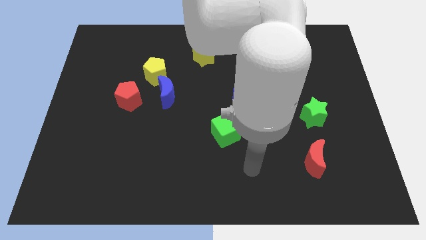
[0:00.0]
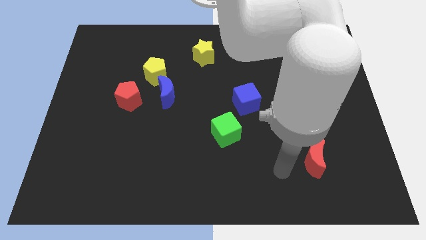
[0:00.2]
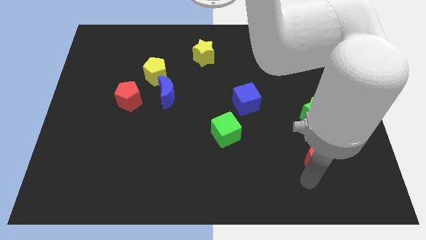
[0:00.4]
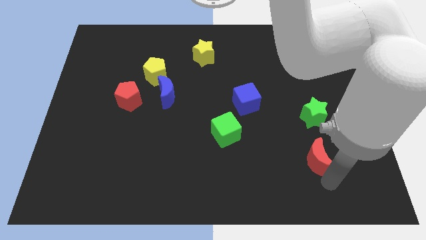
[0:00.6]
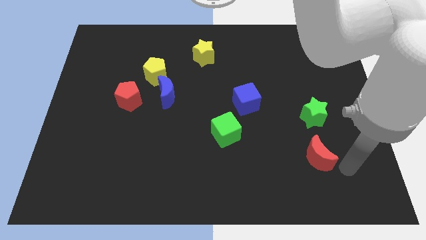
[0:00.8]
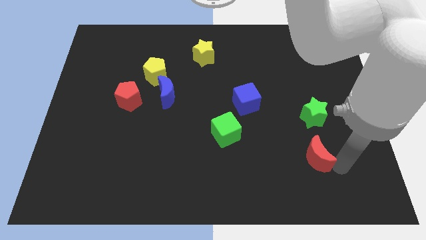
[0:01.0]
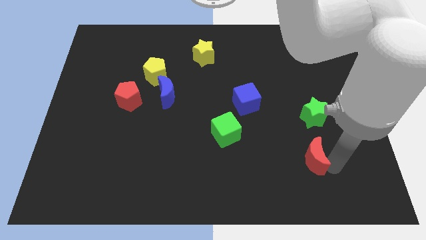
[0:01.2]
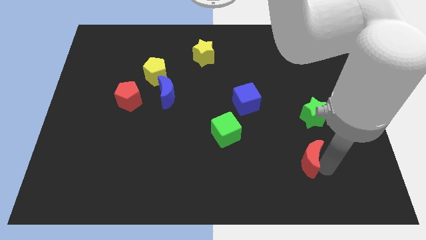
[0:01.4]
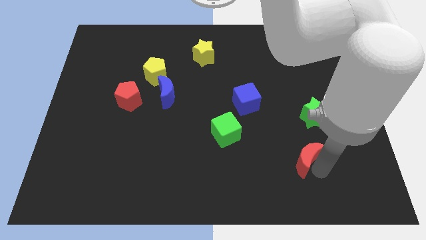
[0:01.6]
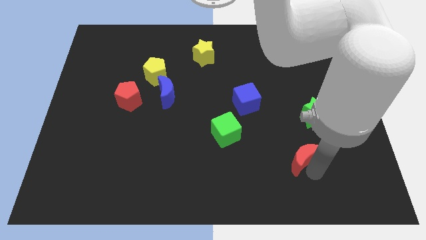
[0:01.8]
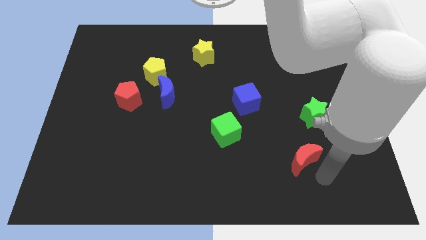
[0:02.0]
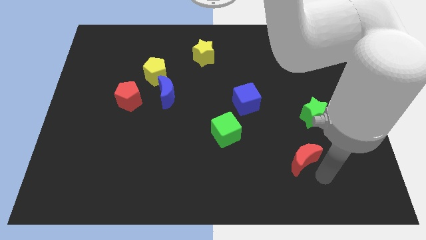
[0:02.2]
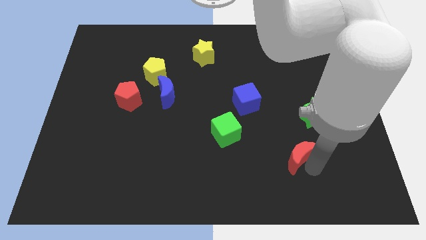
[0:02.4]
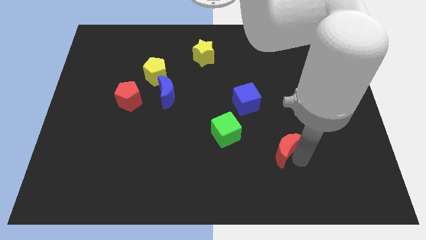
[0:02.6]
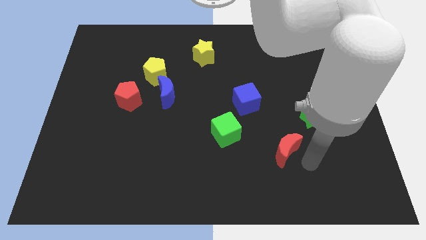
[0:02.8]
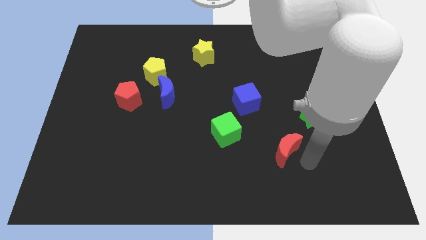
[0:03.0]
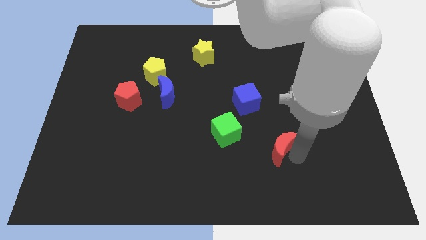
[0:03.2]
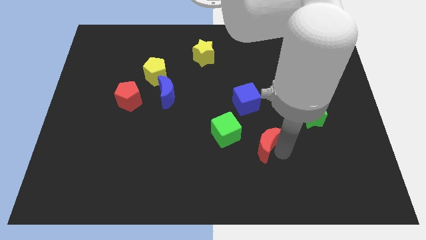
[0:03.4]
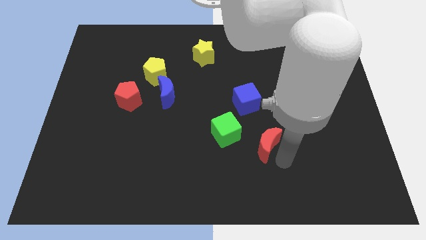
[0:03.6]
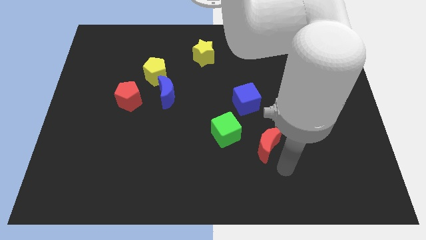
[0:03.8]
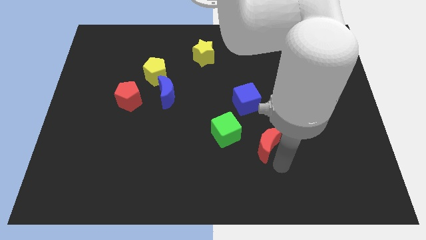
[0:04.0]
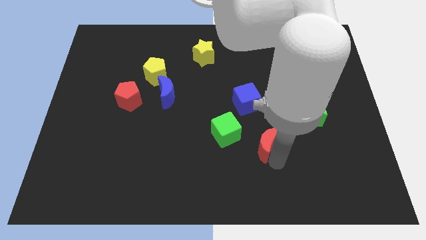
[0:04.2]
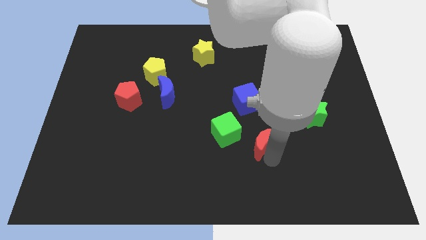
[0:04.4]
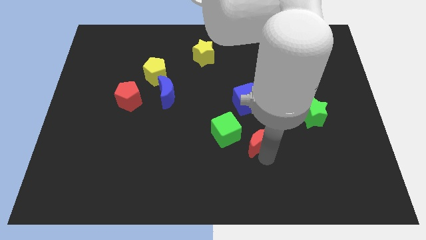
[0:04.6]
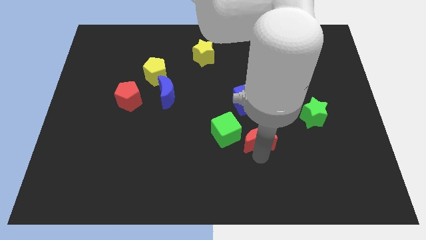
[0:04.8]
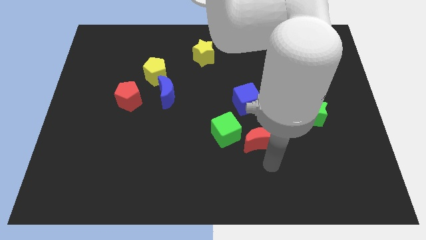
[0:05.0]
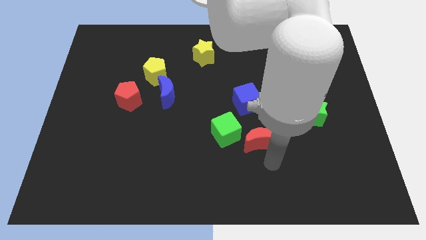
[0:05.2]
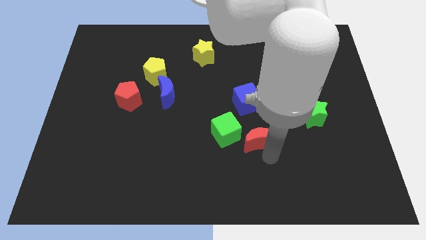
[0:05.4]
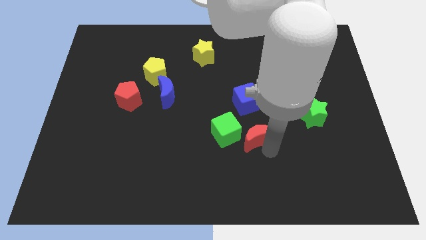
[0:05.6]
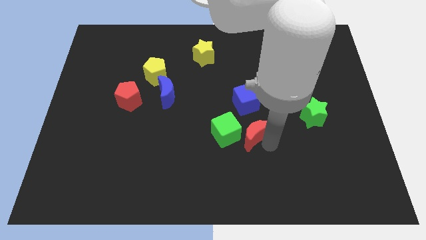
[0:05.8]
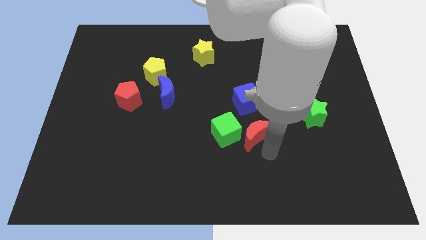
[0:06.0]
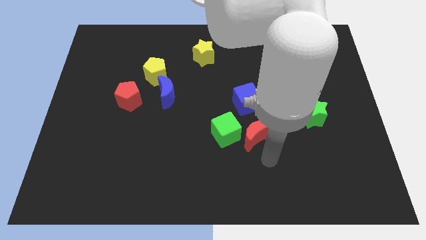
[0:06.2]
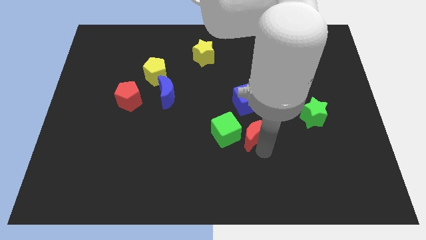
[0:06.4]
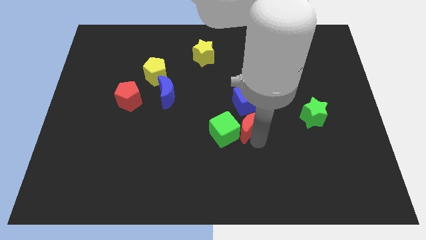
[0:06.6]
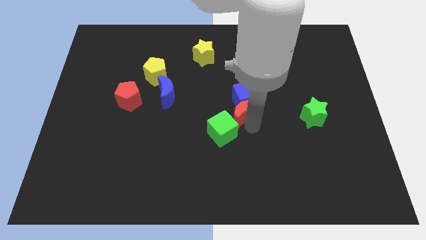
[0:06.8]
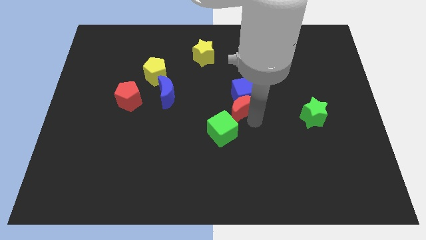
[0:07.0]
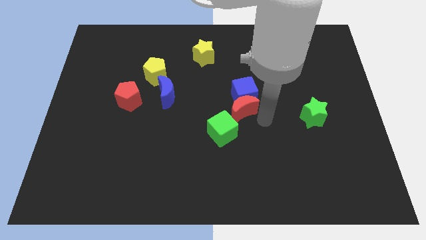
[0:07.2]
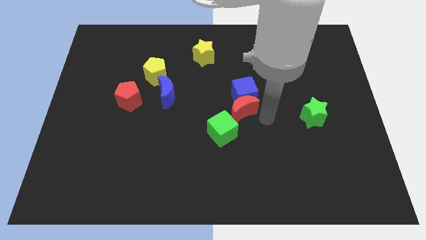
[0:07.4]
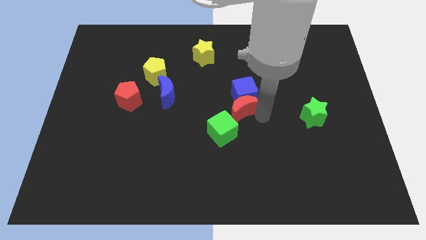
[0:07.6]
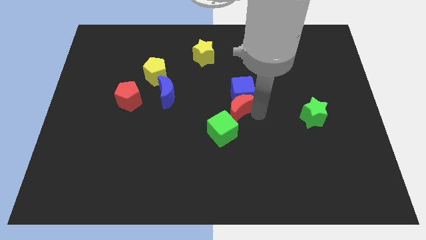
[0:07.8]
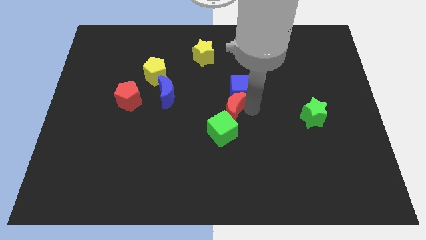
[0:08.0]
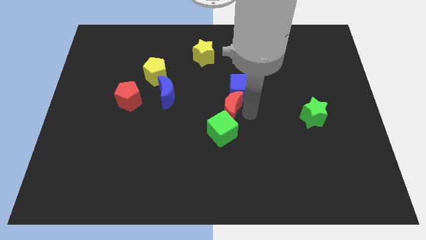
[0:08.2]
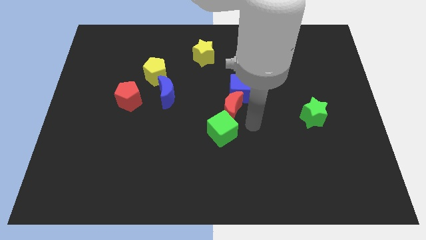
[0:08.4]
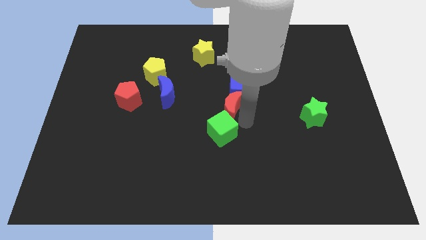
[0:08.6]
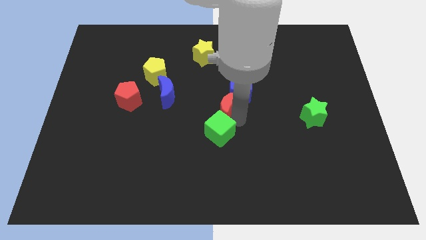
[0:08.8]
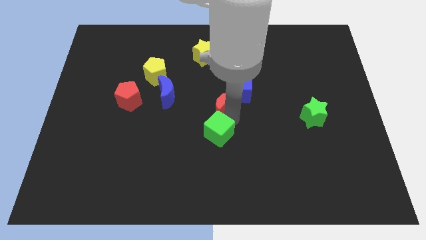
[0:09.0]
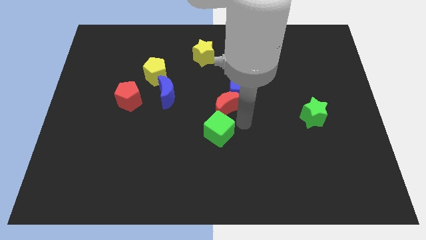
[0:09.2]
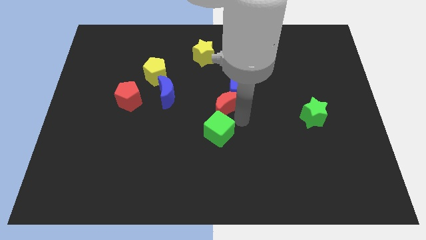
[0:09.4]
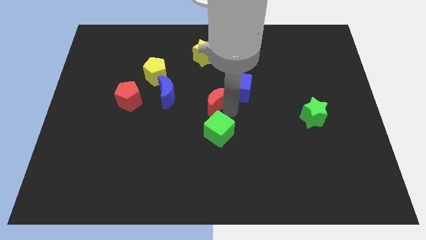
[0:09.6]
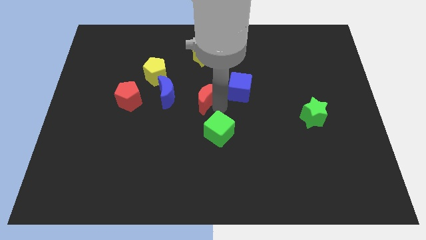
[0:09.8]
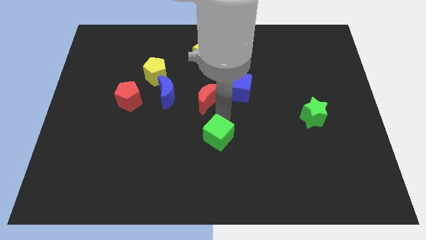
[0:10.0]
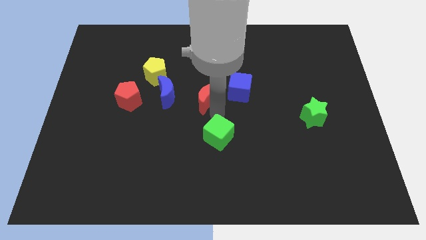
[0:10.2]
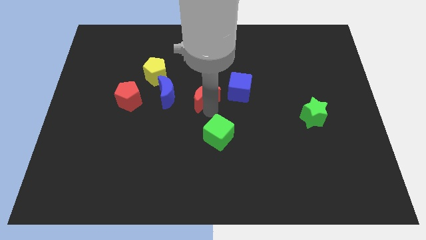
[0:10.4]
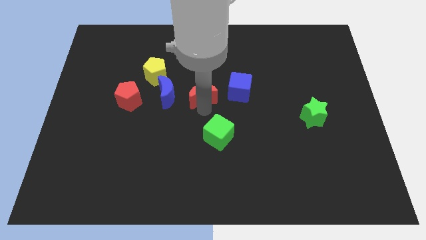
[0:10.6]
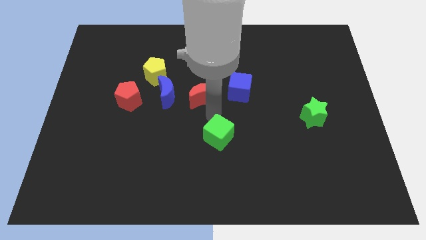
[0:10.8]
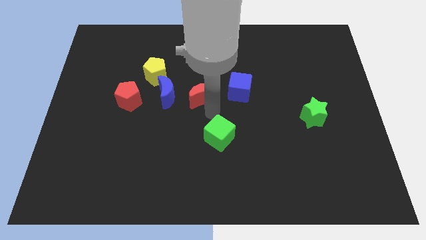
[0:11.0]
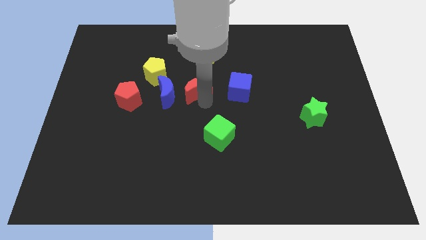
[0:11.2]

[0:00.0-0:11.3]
slide the red moon diagonally up and to the right of the blue moon

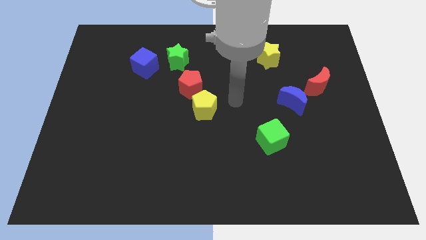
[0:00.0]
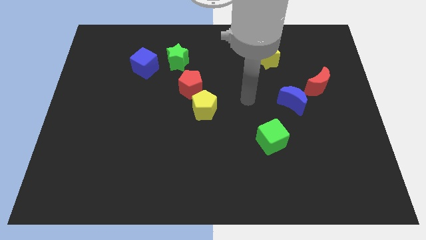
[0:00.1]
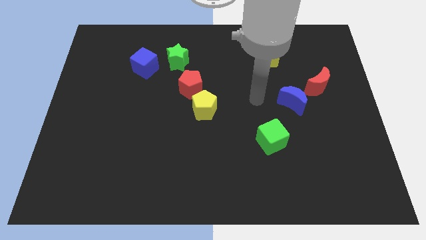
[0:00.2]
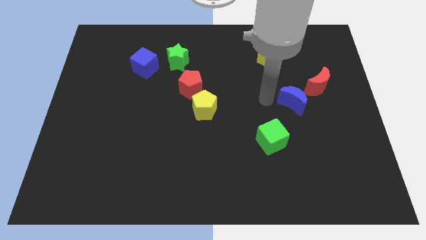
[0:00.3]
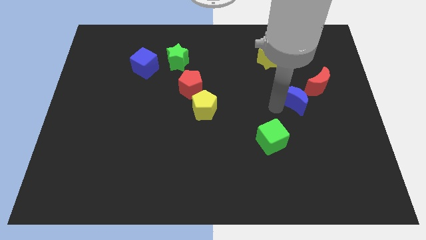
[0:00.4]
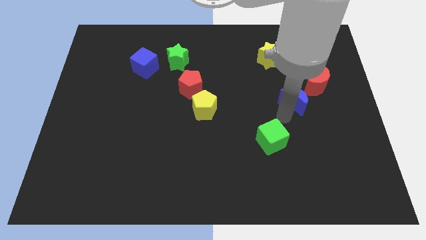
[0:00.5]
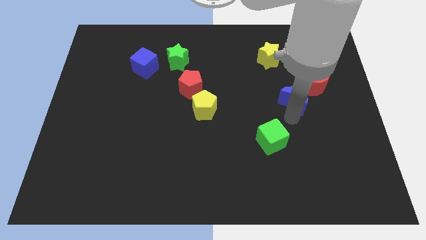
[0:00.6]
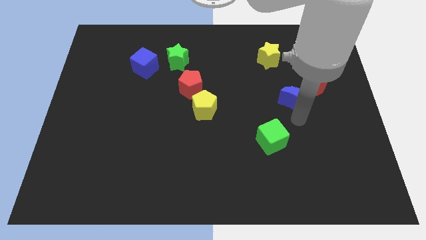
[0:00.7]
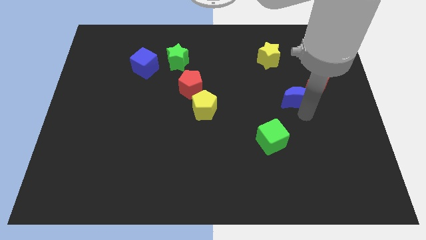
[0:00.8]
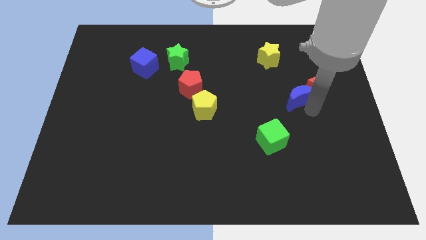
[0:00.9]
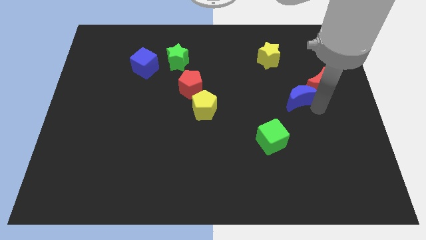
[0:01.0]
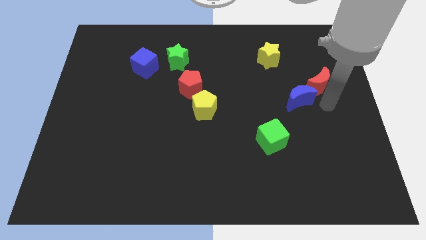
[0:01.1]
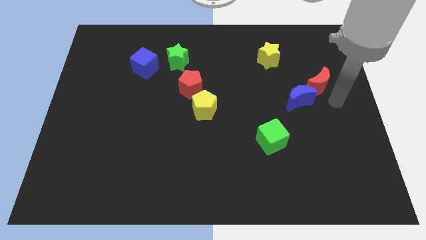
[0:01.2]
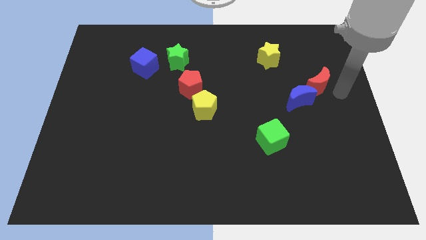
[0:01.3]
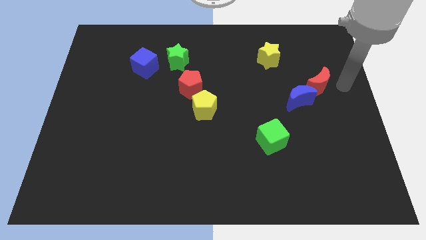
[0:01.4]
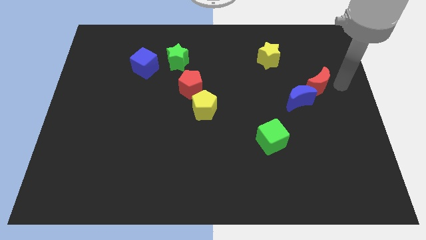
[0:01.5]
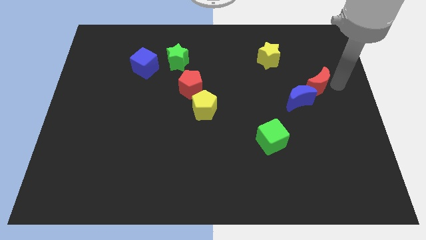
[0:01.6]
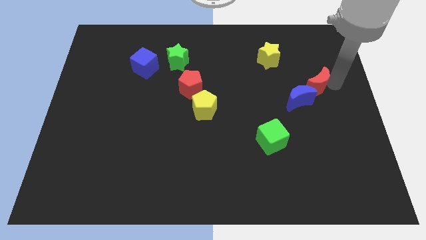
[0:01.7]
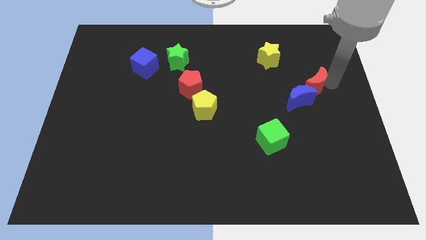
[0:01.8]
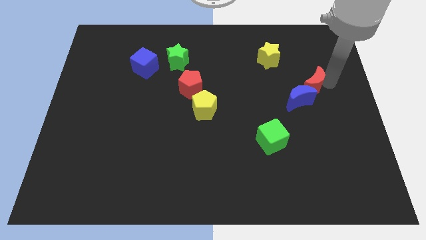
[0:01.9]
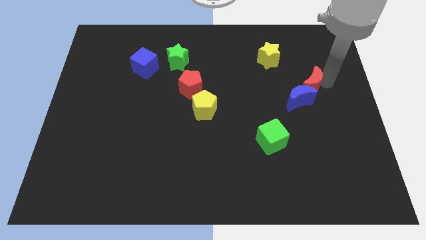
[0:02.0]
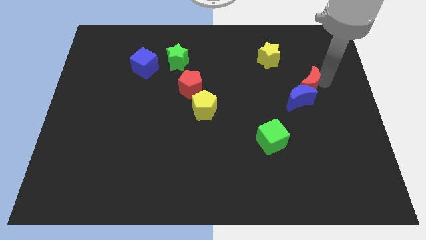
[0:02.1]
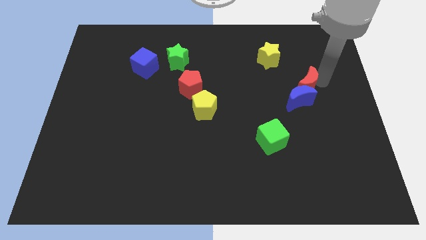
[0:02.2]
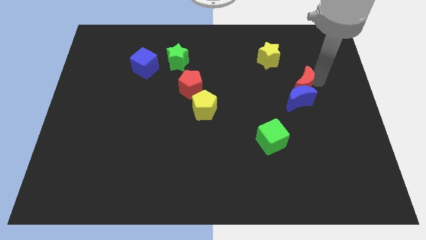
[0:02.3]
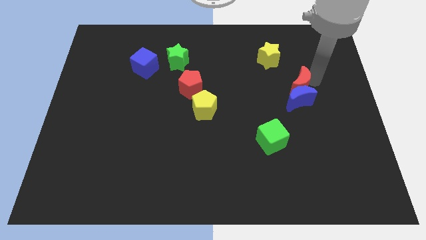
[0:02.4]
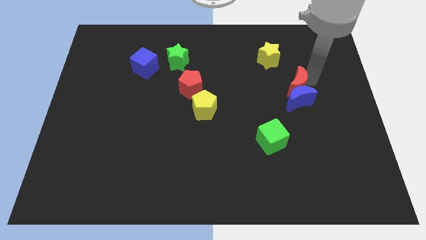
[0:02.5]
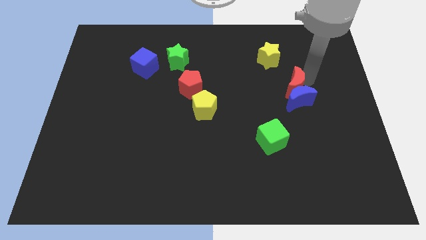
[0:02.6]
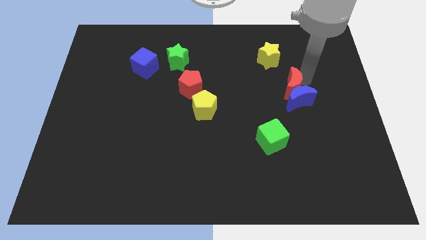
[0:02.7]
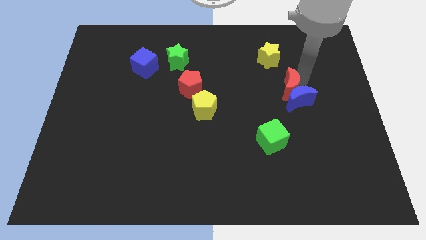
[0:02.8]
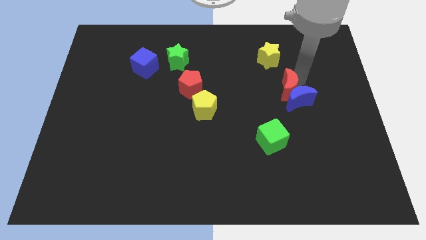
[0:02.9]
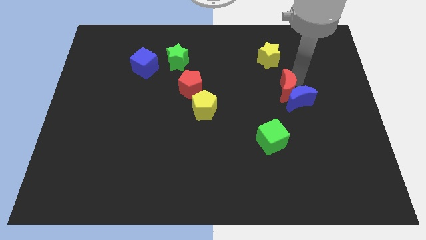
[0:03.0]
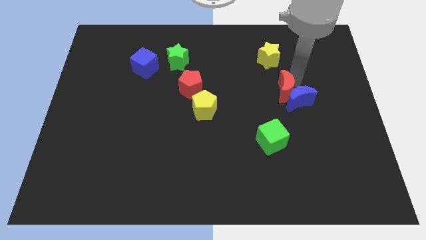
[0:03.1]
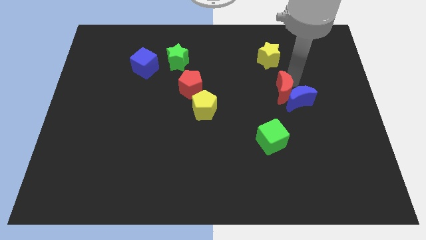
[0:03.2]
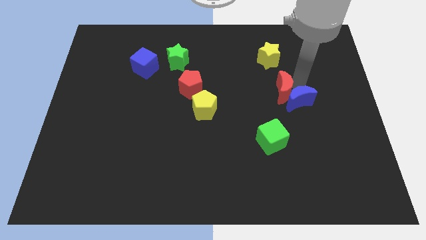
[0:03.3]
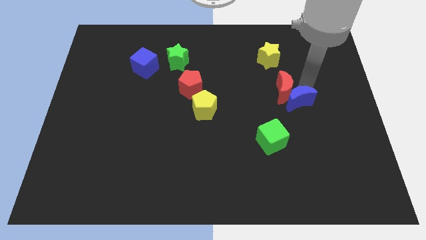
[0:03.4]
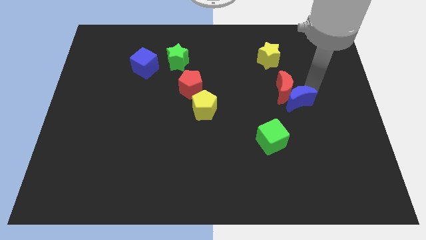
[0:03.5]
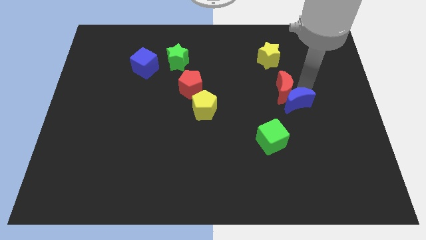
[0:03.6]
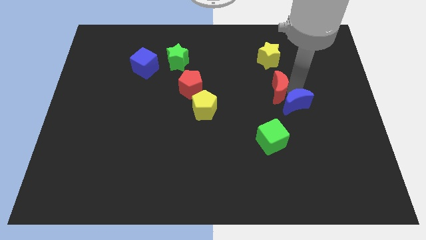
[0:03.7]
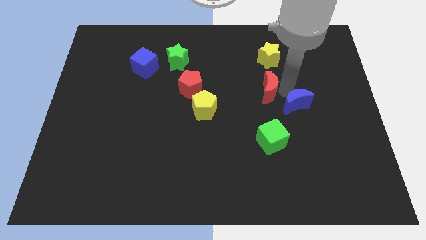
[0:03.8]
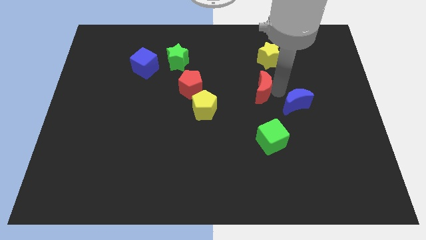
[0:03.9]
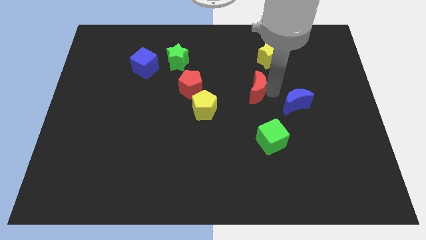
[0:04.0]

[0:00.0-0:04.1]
slide the red moon to the right of the red pentagon
